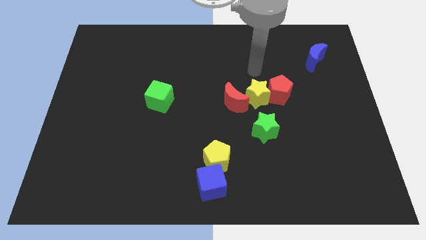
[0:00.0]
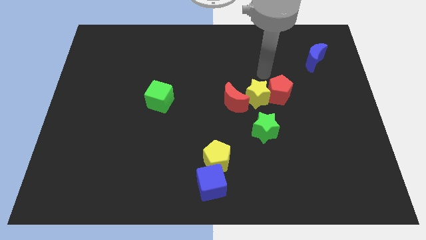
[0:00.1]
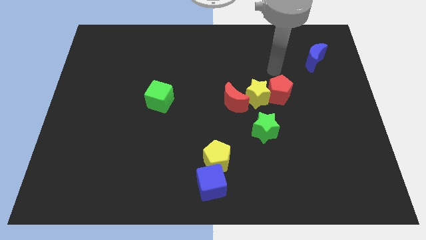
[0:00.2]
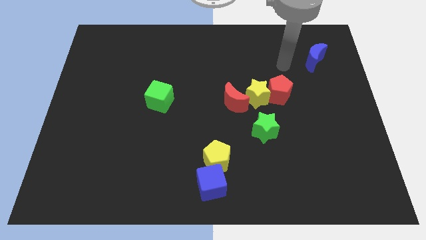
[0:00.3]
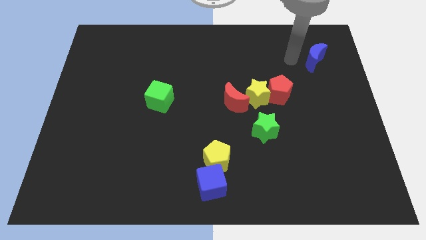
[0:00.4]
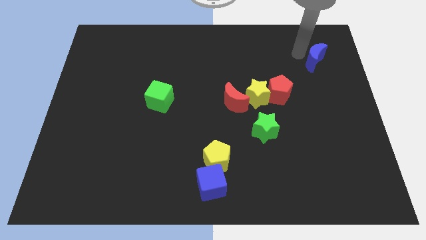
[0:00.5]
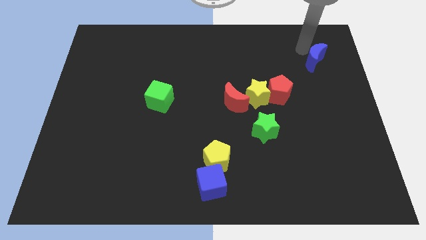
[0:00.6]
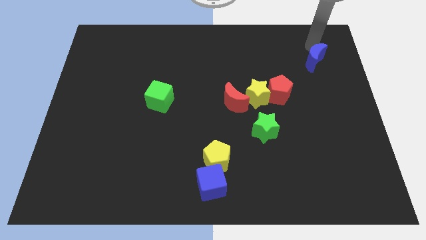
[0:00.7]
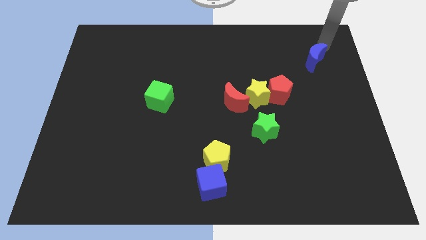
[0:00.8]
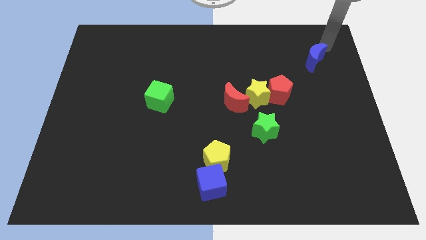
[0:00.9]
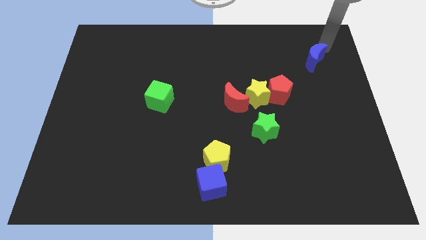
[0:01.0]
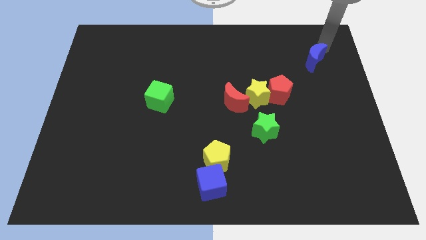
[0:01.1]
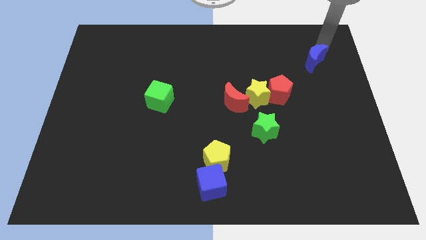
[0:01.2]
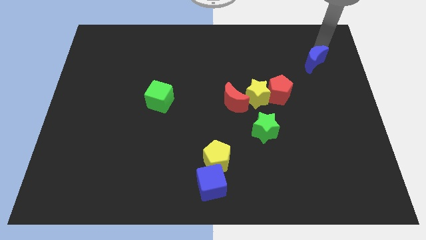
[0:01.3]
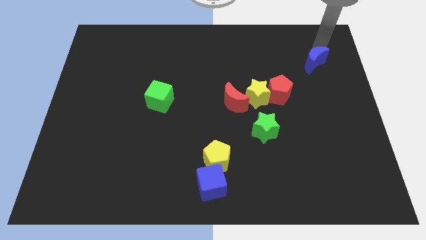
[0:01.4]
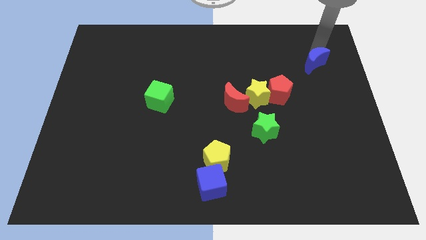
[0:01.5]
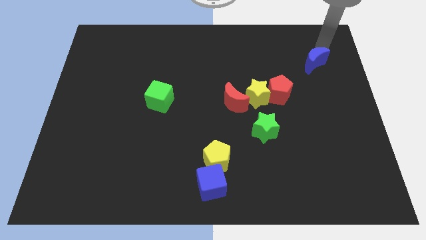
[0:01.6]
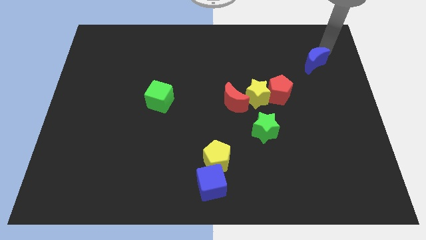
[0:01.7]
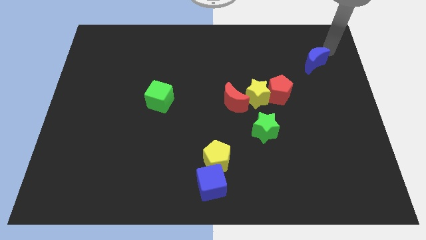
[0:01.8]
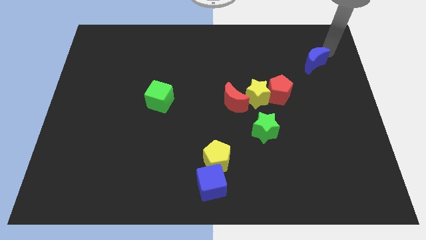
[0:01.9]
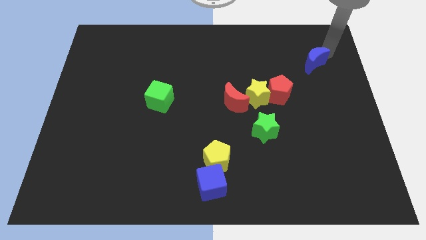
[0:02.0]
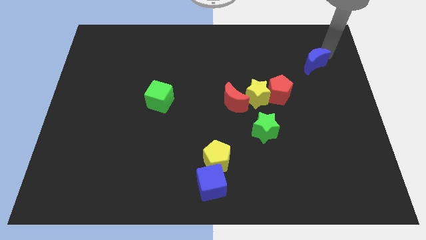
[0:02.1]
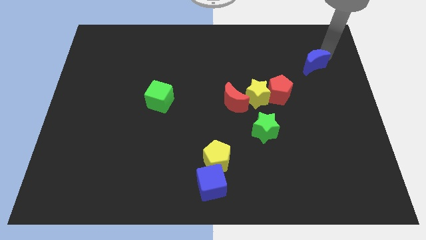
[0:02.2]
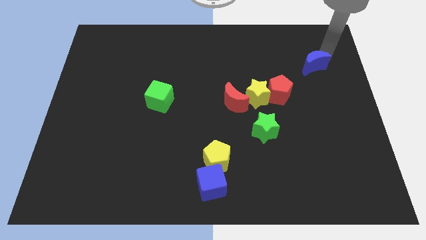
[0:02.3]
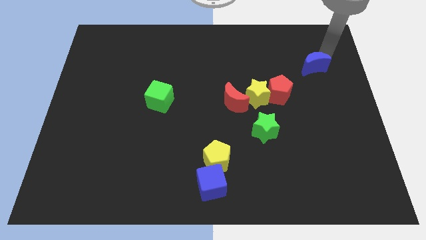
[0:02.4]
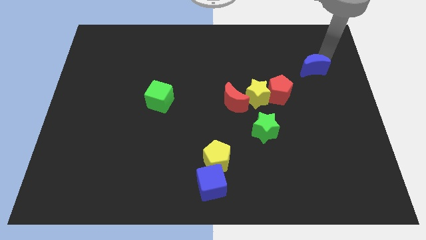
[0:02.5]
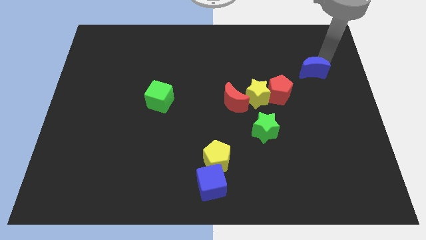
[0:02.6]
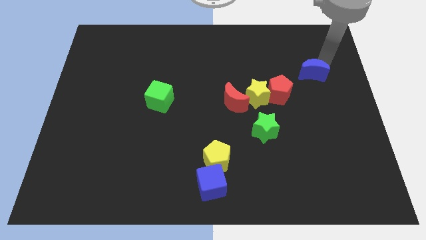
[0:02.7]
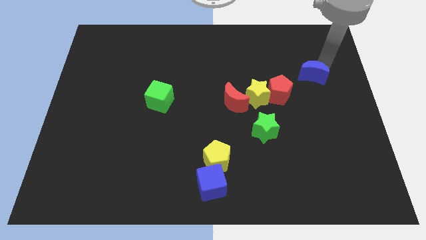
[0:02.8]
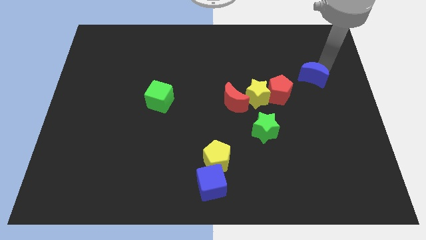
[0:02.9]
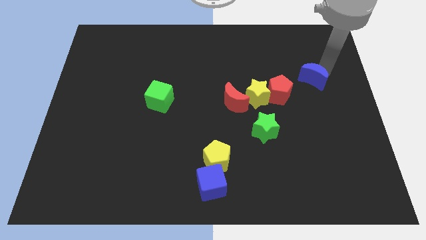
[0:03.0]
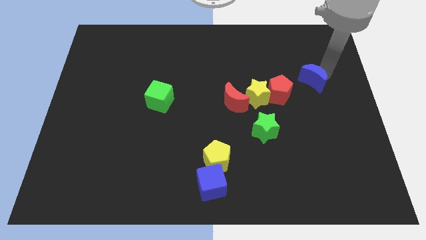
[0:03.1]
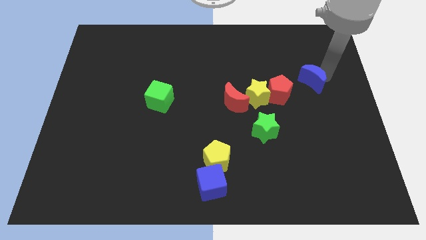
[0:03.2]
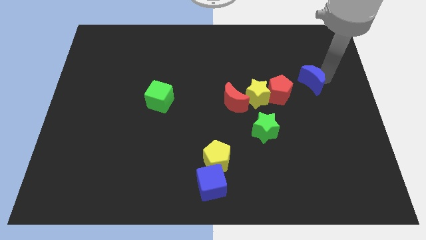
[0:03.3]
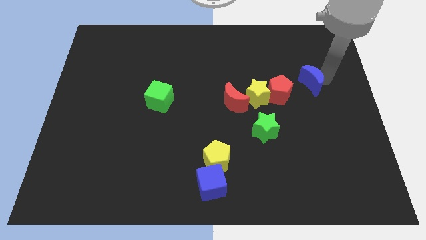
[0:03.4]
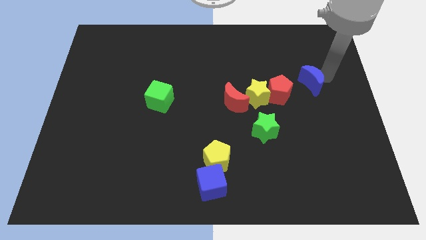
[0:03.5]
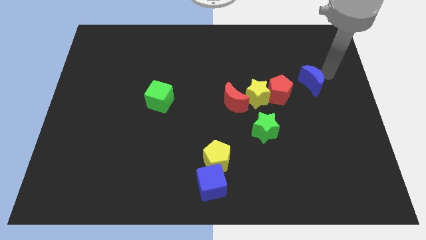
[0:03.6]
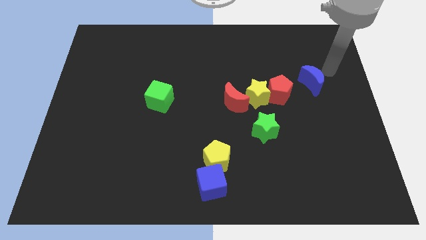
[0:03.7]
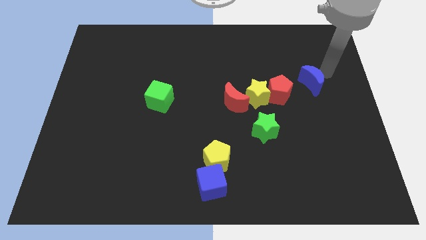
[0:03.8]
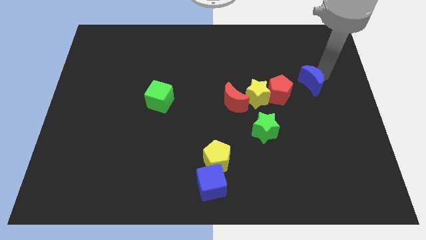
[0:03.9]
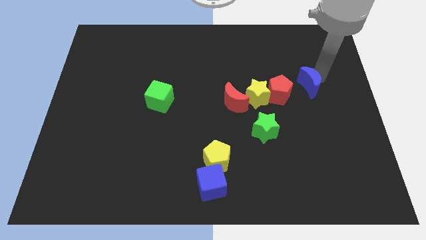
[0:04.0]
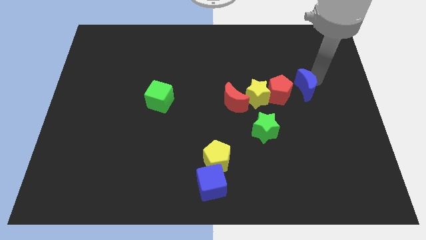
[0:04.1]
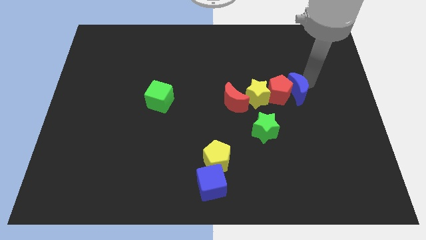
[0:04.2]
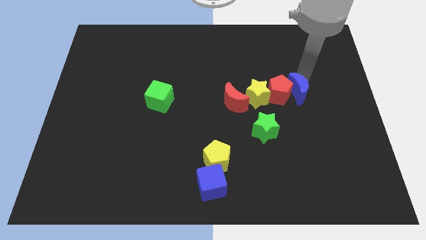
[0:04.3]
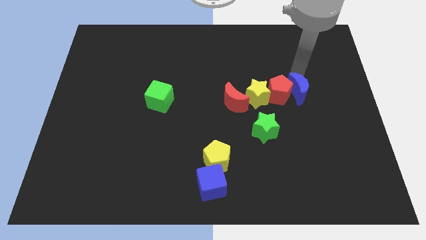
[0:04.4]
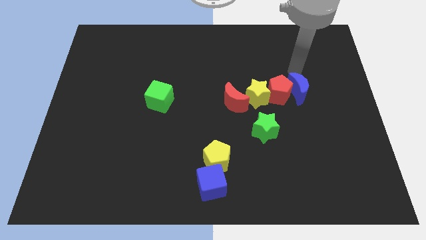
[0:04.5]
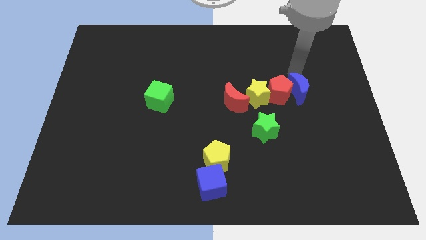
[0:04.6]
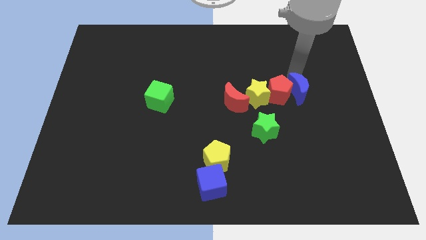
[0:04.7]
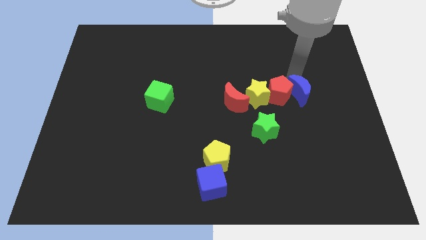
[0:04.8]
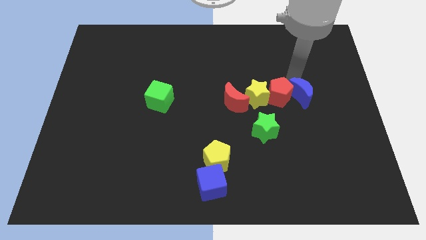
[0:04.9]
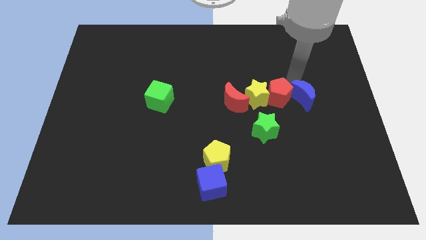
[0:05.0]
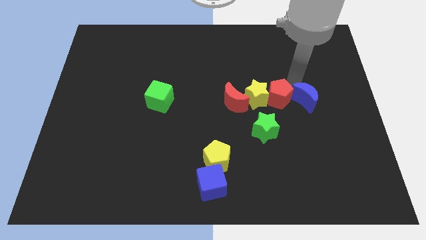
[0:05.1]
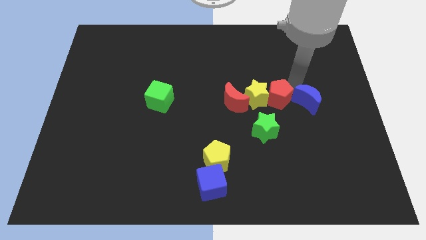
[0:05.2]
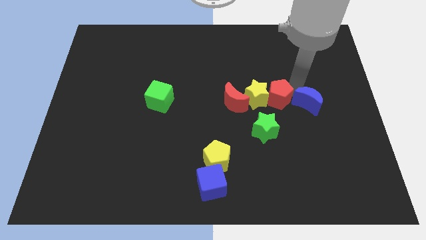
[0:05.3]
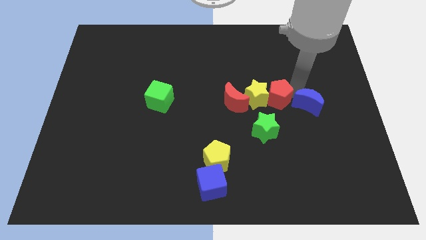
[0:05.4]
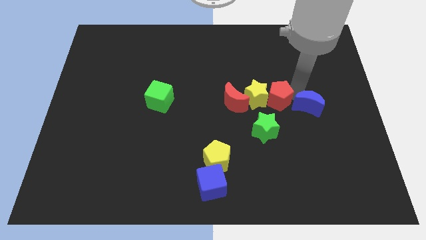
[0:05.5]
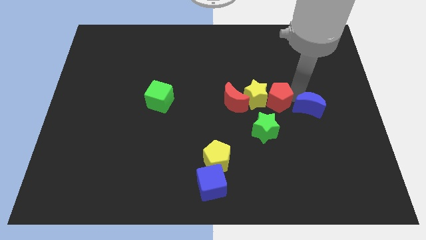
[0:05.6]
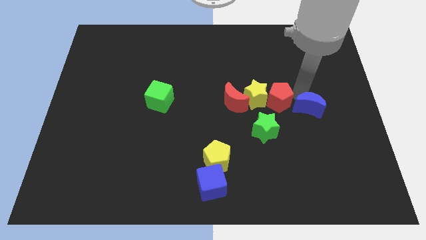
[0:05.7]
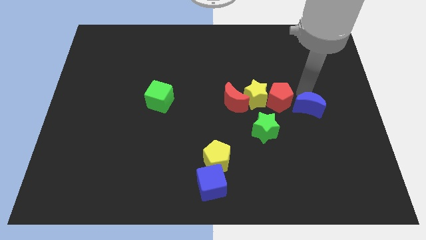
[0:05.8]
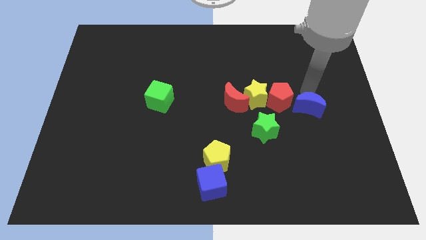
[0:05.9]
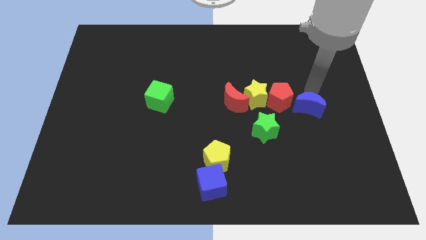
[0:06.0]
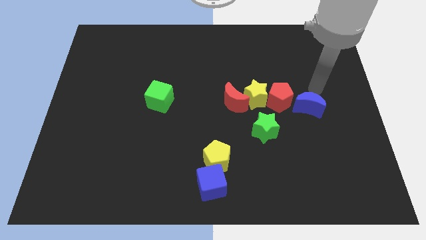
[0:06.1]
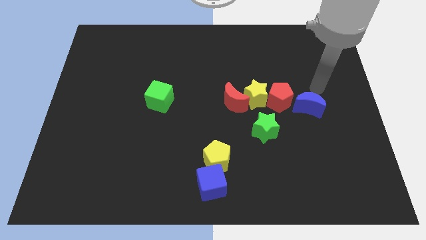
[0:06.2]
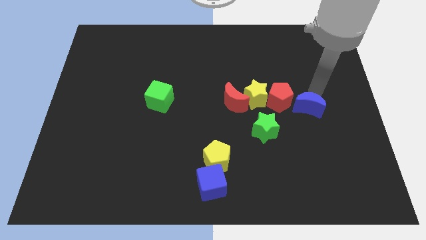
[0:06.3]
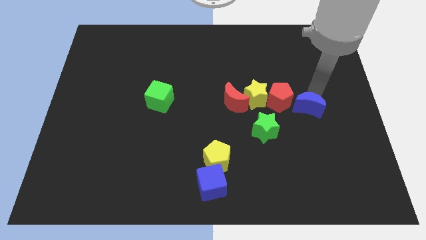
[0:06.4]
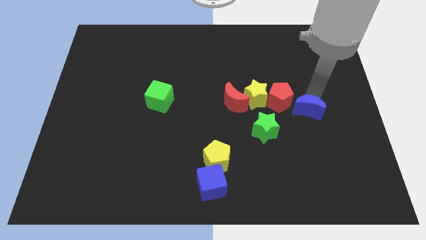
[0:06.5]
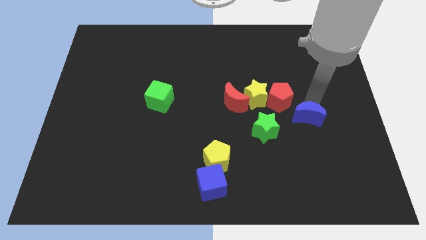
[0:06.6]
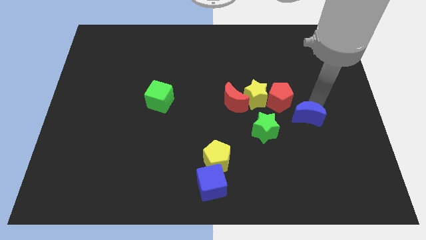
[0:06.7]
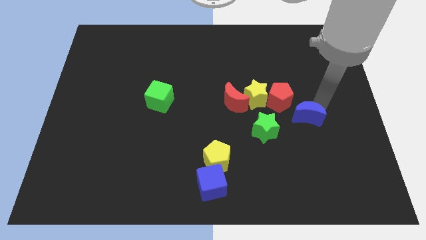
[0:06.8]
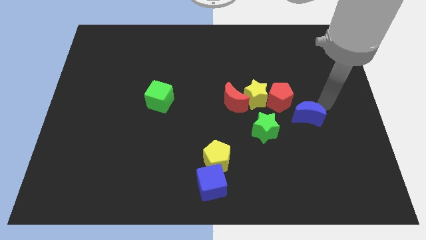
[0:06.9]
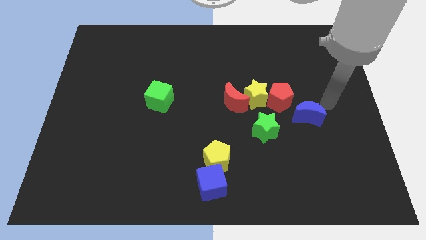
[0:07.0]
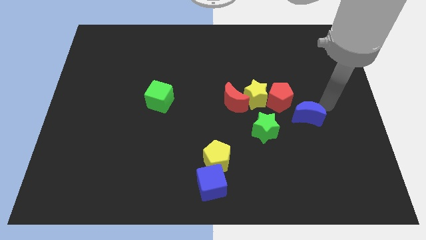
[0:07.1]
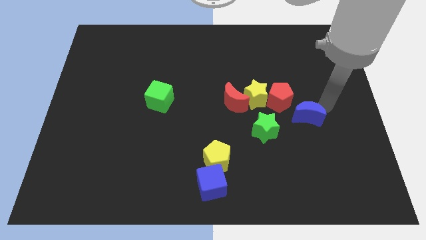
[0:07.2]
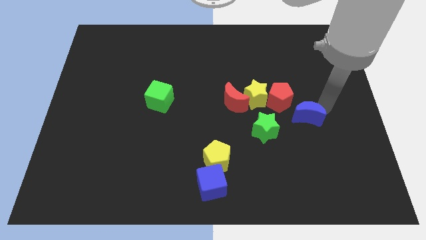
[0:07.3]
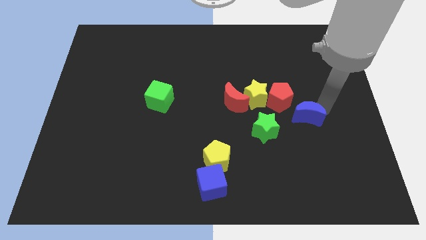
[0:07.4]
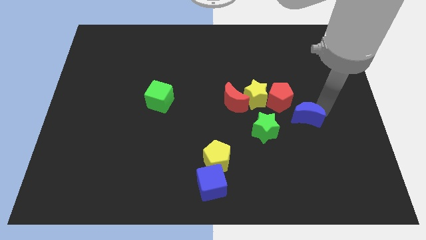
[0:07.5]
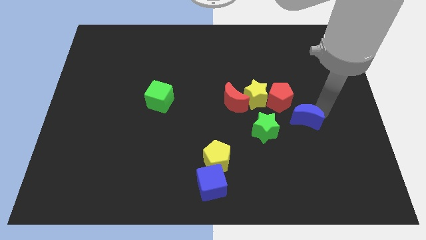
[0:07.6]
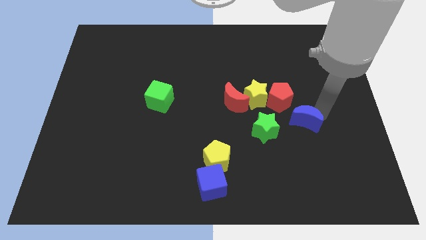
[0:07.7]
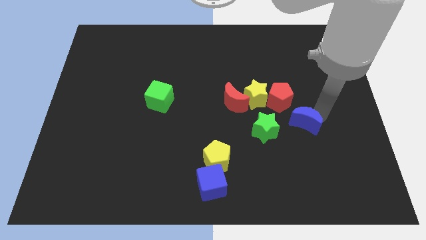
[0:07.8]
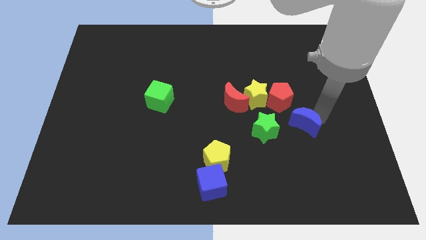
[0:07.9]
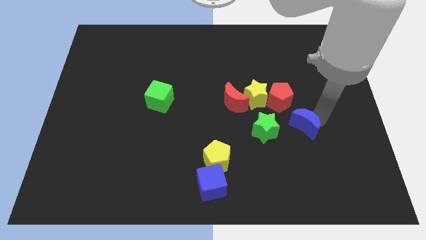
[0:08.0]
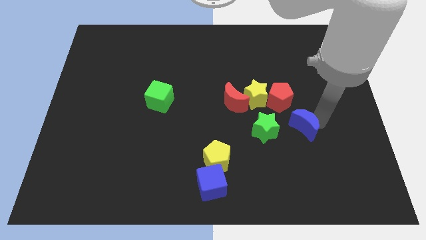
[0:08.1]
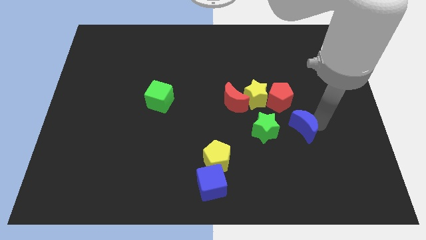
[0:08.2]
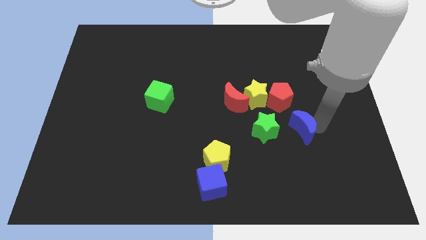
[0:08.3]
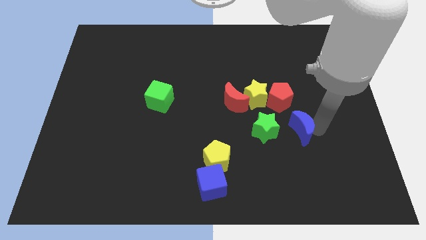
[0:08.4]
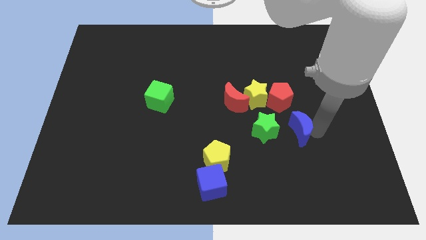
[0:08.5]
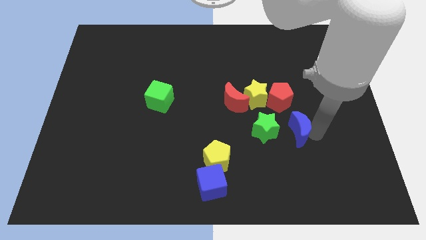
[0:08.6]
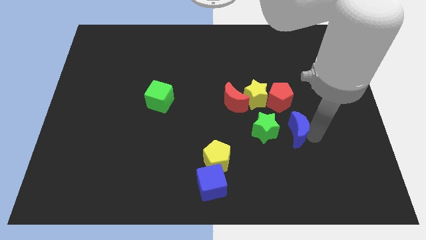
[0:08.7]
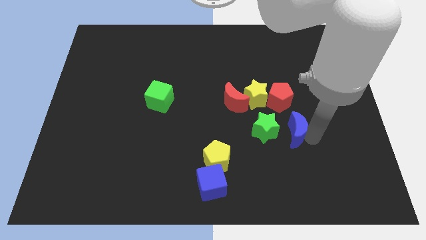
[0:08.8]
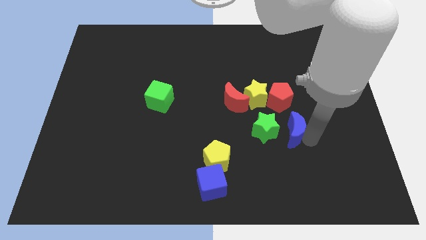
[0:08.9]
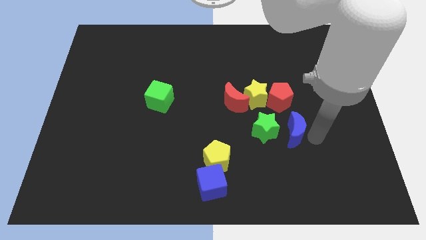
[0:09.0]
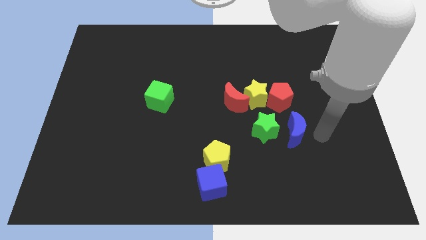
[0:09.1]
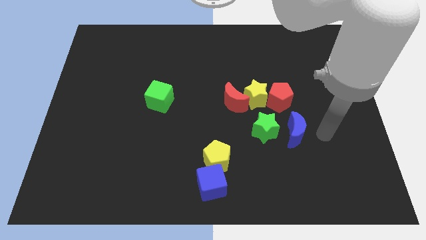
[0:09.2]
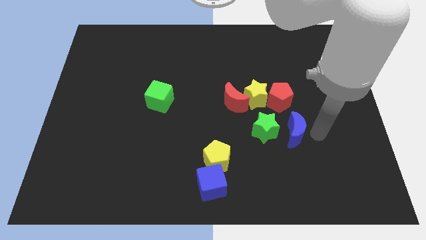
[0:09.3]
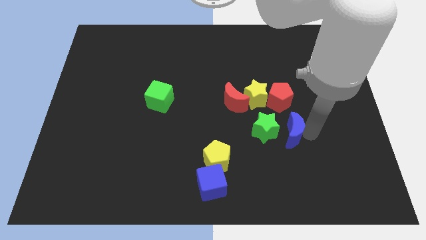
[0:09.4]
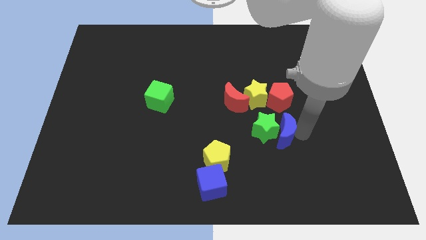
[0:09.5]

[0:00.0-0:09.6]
move the blue moon close to the green star
